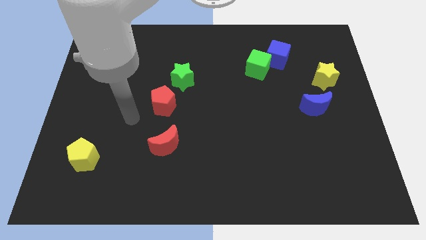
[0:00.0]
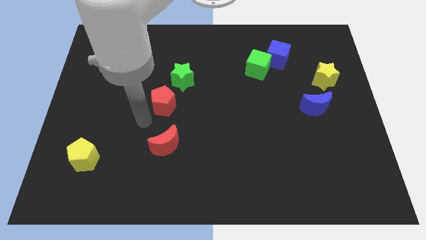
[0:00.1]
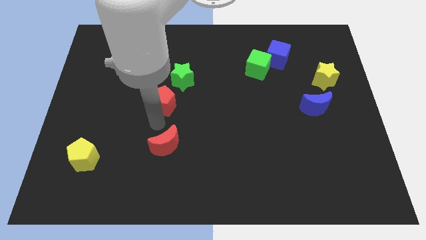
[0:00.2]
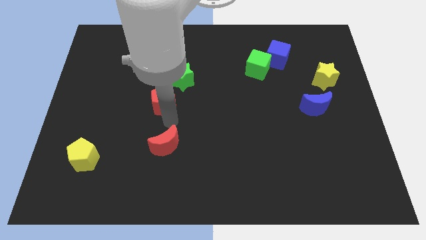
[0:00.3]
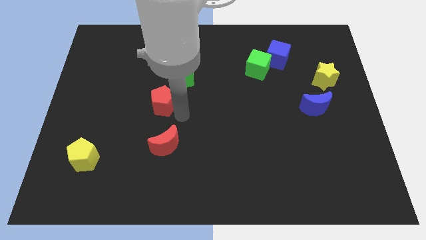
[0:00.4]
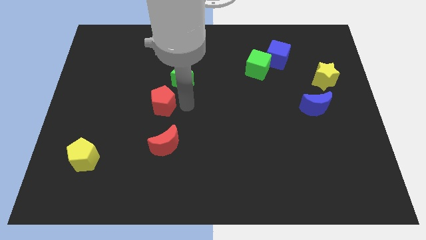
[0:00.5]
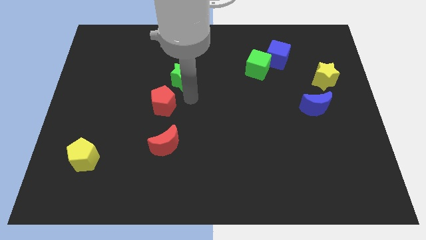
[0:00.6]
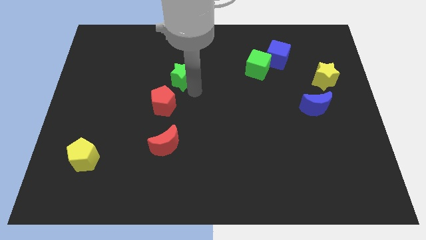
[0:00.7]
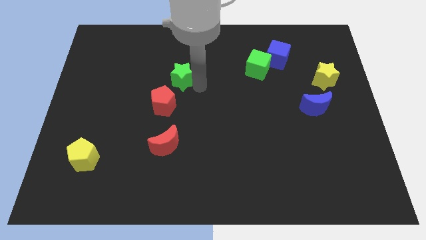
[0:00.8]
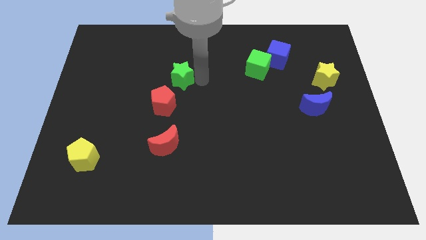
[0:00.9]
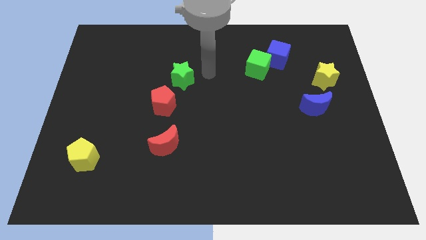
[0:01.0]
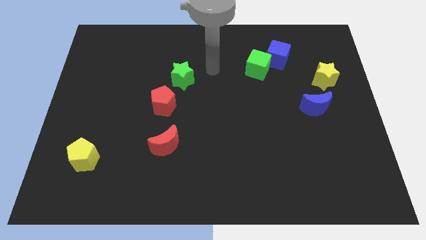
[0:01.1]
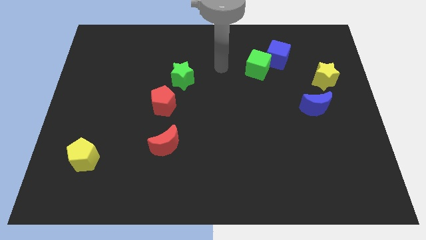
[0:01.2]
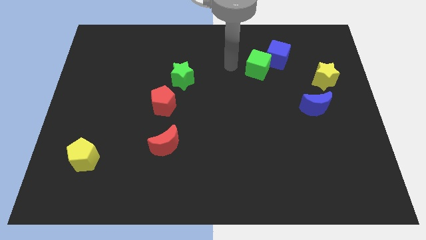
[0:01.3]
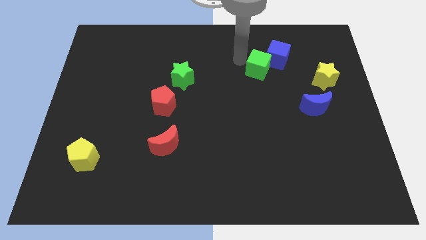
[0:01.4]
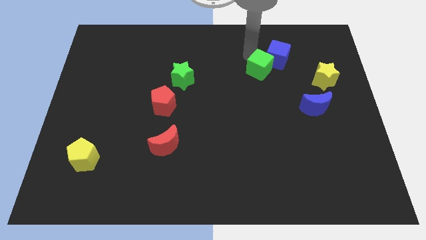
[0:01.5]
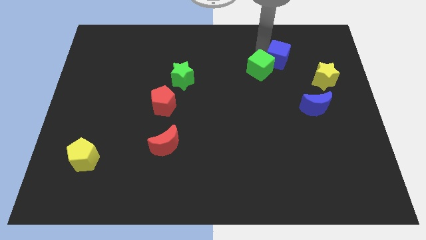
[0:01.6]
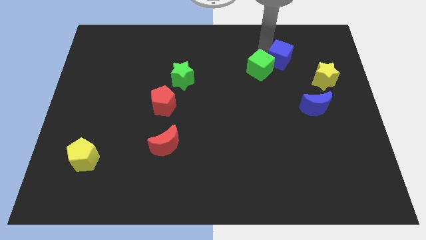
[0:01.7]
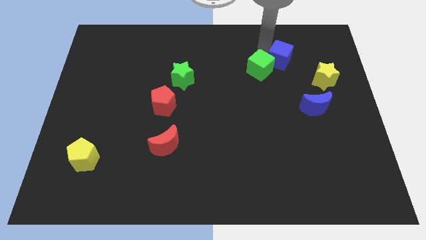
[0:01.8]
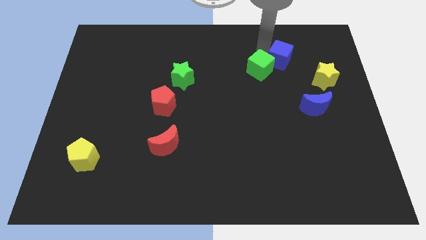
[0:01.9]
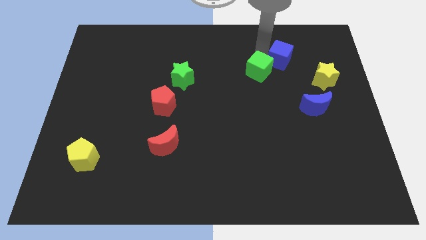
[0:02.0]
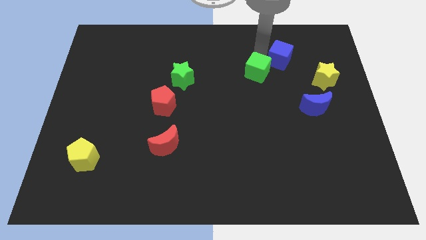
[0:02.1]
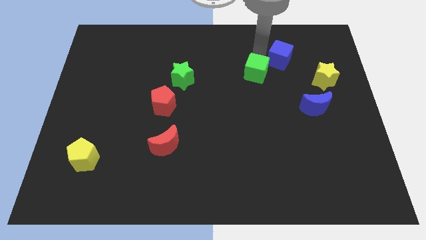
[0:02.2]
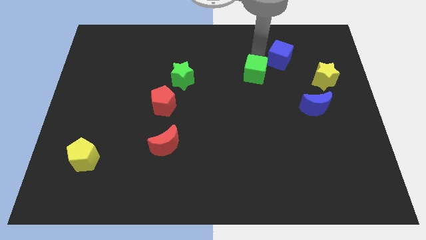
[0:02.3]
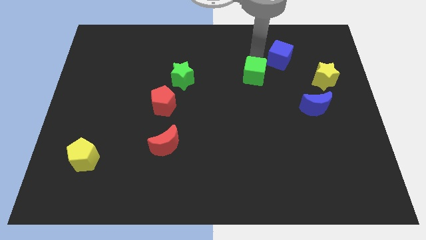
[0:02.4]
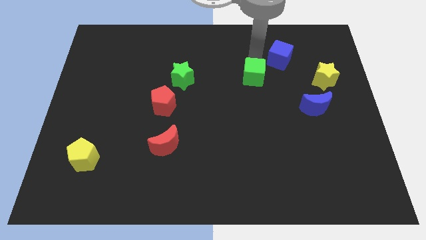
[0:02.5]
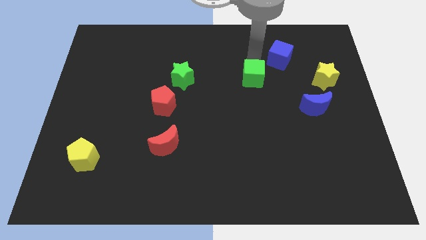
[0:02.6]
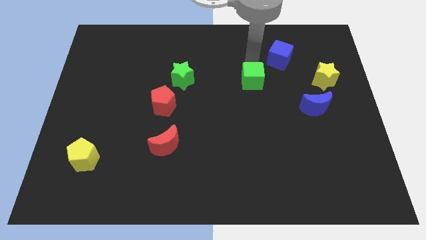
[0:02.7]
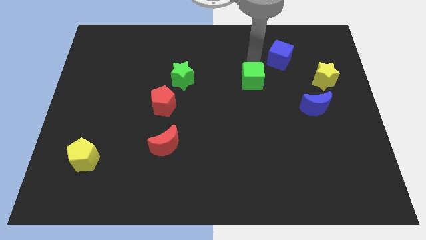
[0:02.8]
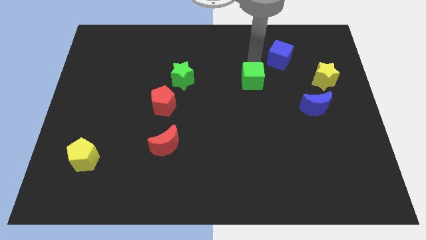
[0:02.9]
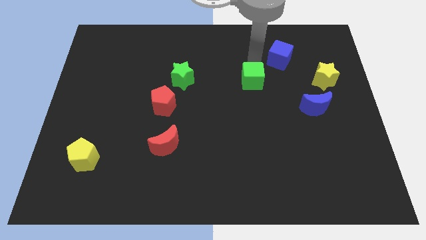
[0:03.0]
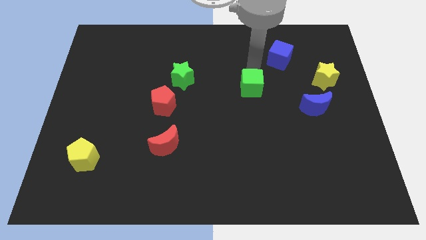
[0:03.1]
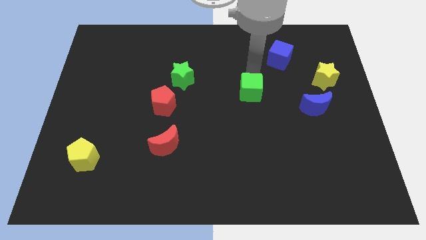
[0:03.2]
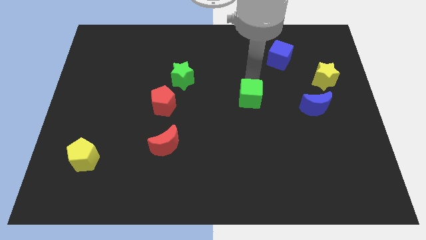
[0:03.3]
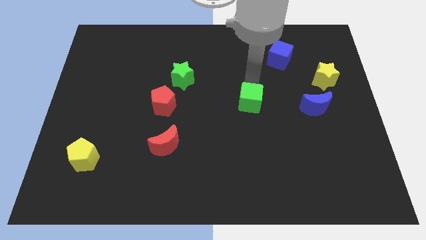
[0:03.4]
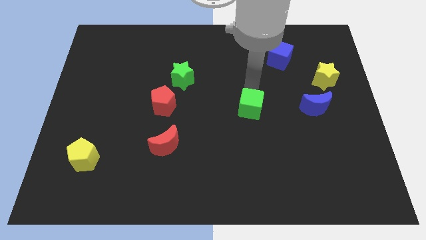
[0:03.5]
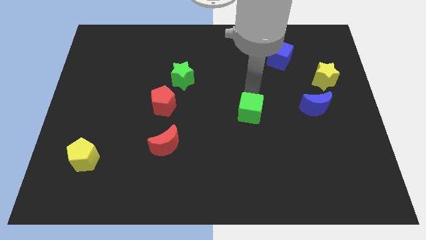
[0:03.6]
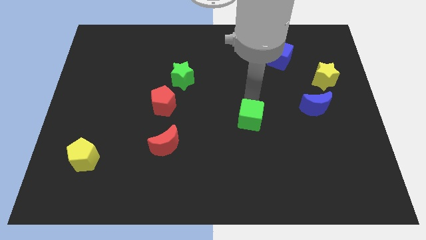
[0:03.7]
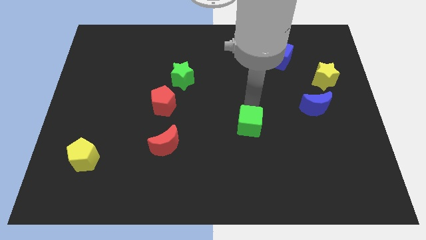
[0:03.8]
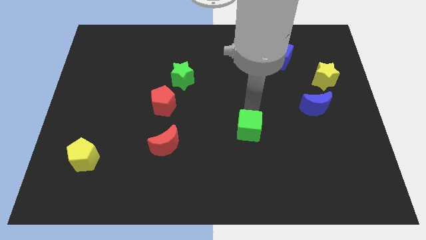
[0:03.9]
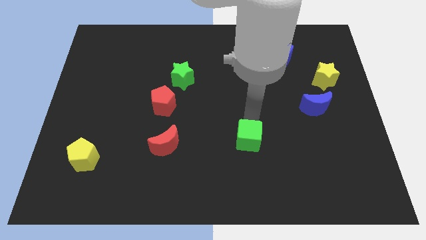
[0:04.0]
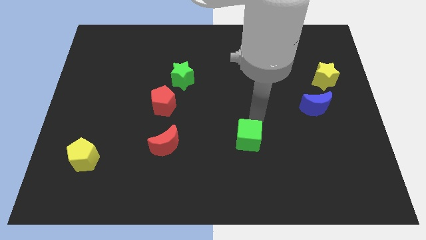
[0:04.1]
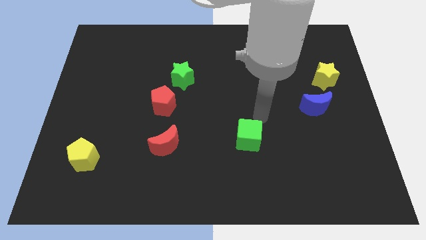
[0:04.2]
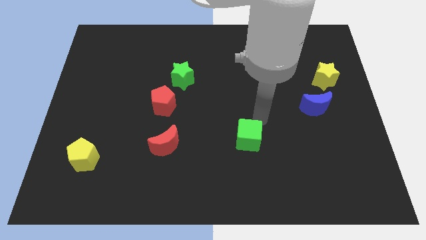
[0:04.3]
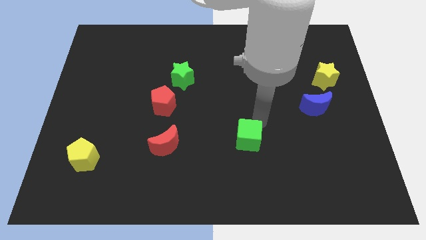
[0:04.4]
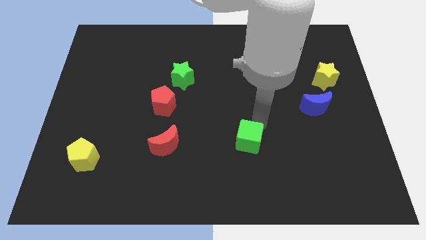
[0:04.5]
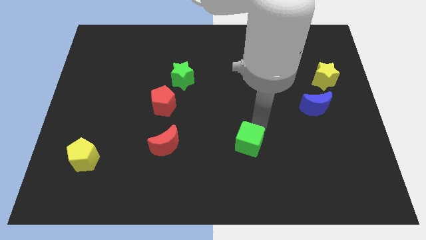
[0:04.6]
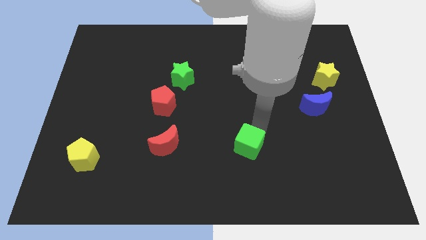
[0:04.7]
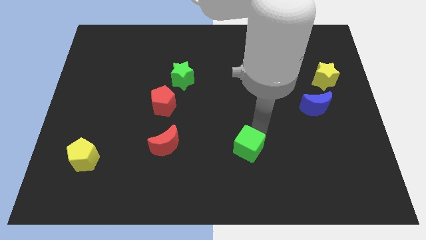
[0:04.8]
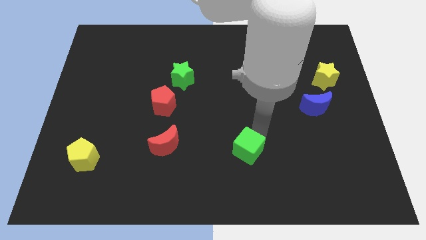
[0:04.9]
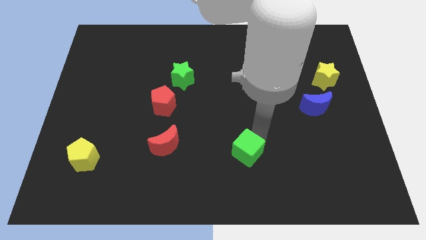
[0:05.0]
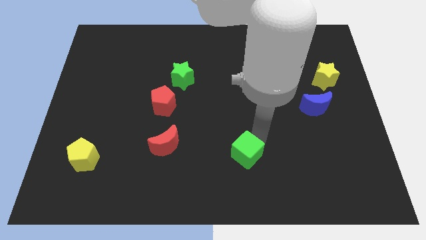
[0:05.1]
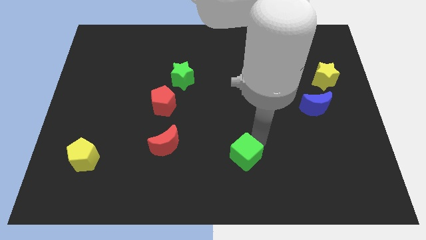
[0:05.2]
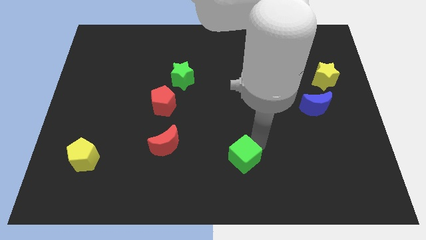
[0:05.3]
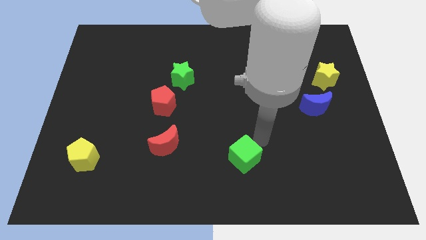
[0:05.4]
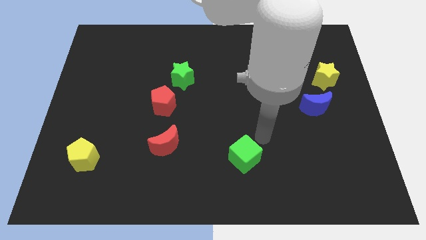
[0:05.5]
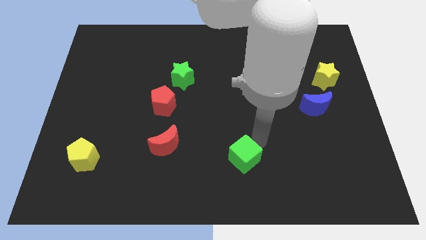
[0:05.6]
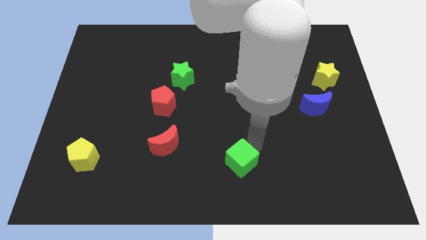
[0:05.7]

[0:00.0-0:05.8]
put the green cube to the bottom

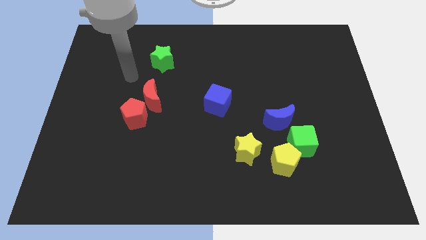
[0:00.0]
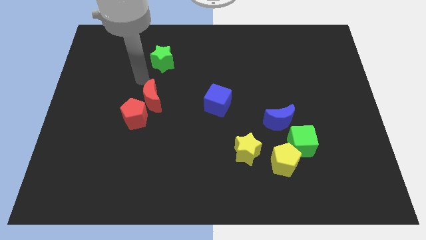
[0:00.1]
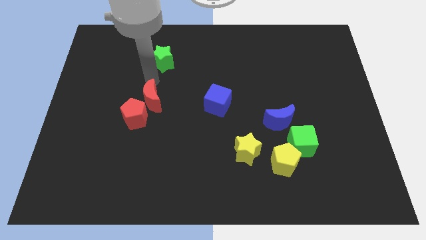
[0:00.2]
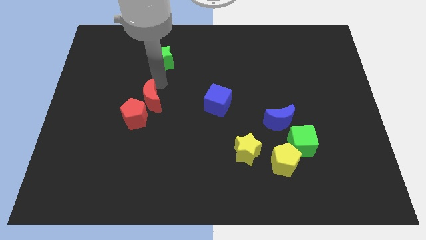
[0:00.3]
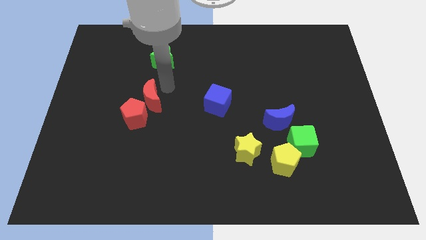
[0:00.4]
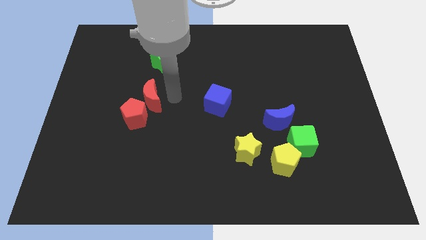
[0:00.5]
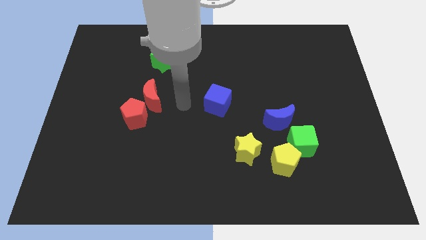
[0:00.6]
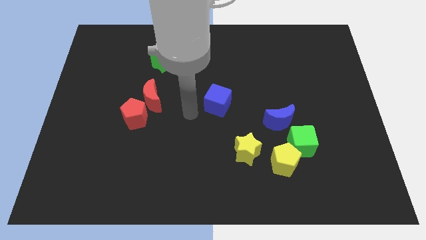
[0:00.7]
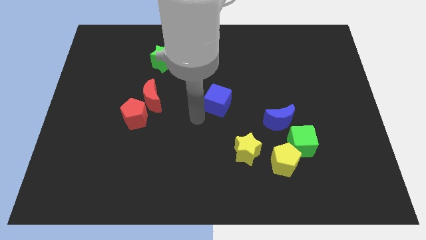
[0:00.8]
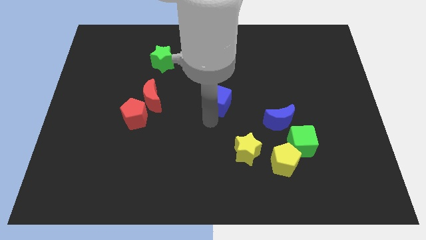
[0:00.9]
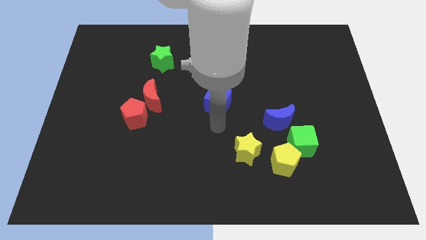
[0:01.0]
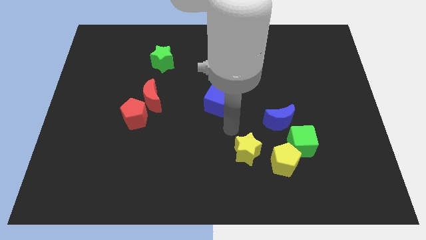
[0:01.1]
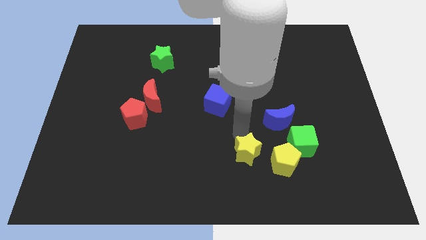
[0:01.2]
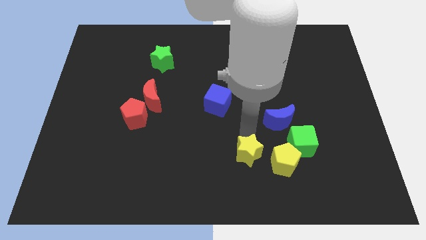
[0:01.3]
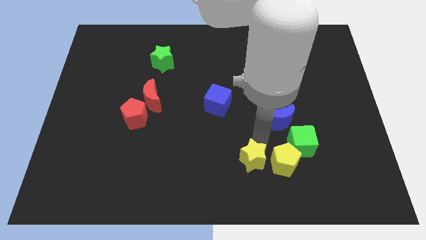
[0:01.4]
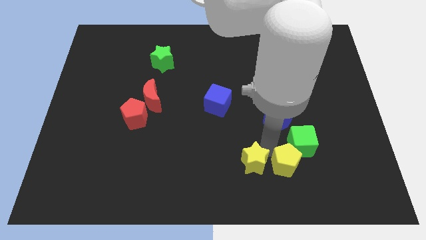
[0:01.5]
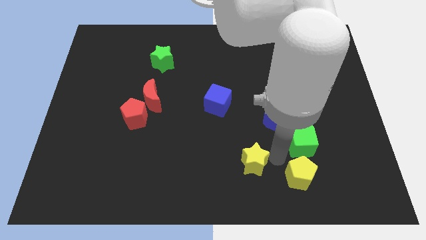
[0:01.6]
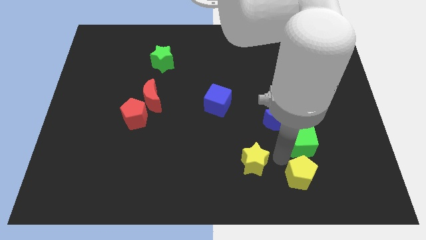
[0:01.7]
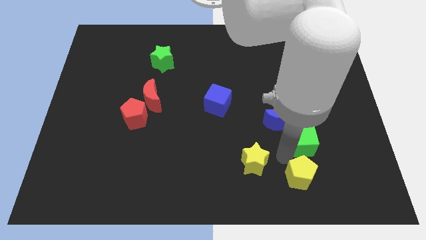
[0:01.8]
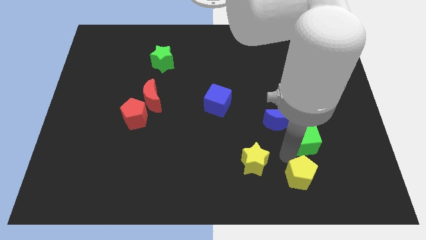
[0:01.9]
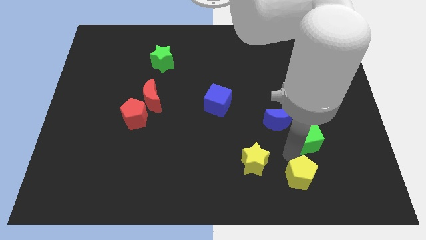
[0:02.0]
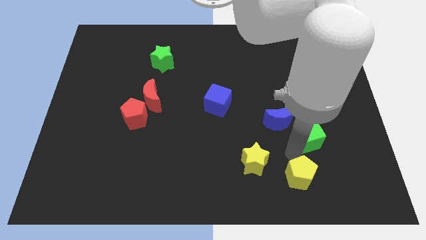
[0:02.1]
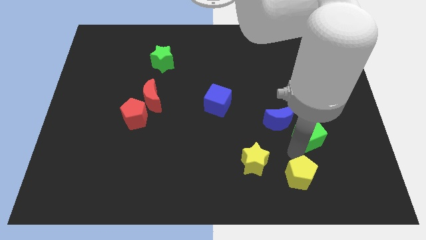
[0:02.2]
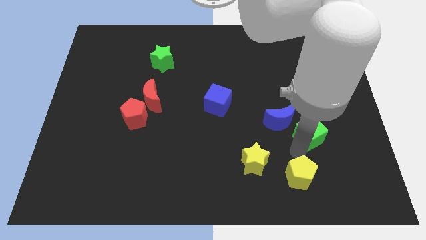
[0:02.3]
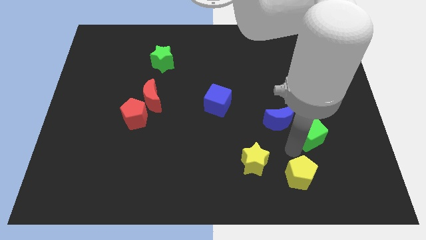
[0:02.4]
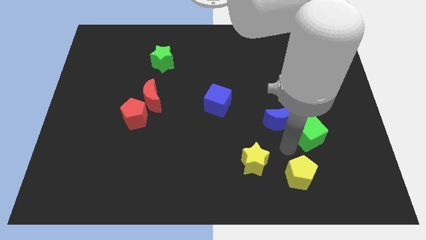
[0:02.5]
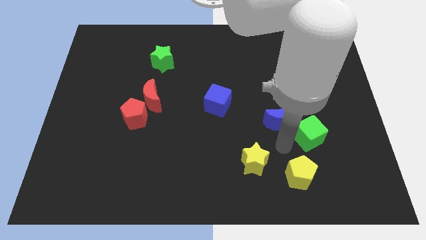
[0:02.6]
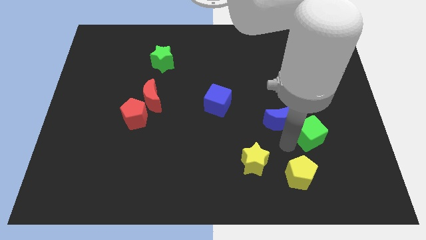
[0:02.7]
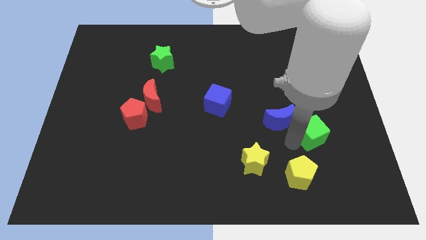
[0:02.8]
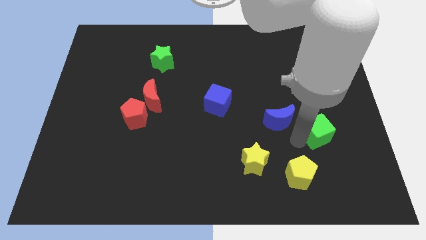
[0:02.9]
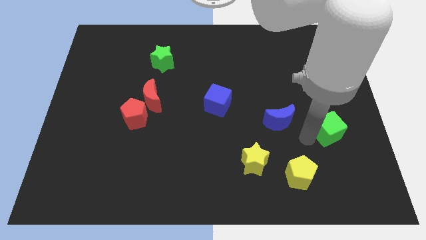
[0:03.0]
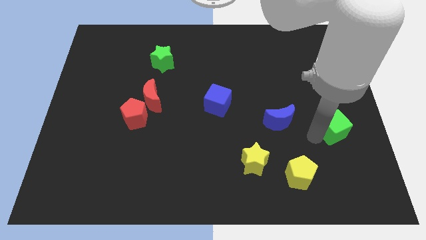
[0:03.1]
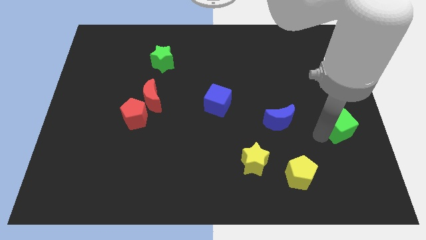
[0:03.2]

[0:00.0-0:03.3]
push the green cube to the center right
